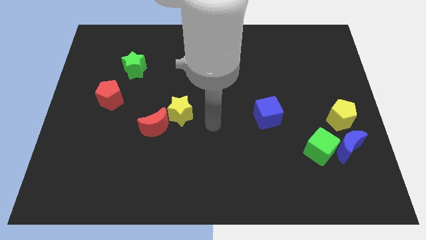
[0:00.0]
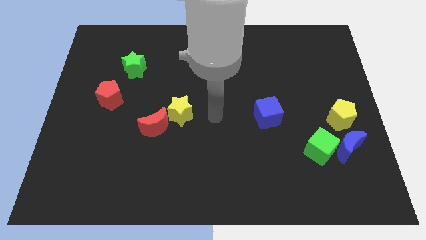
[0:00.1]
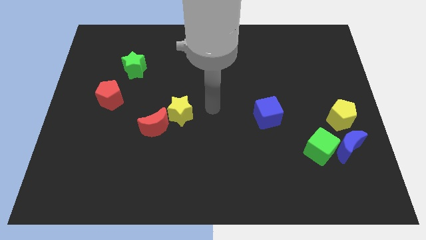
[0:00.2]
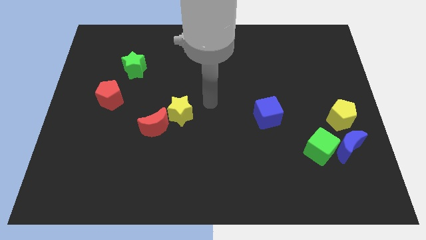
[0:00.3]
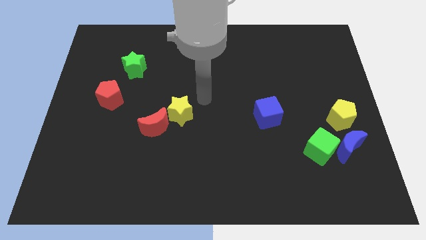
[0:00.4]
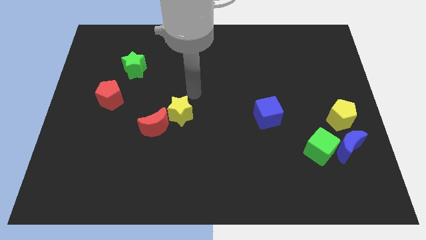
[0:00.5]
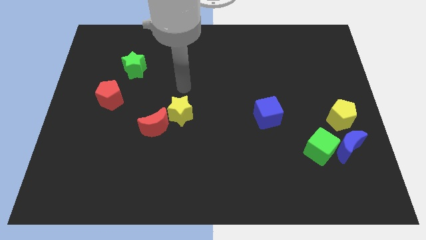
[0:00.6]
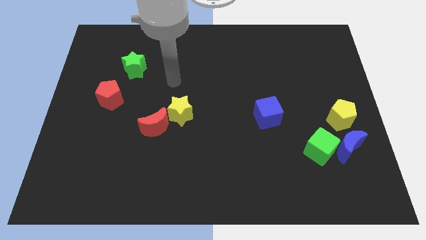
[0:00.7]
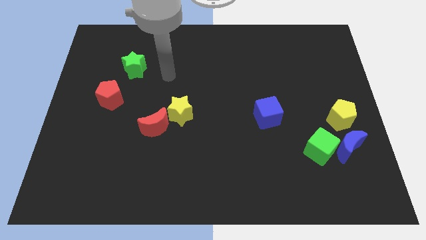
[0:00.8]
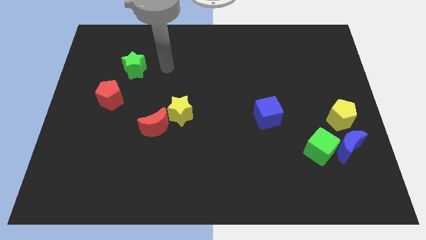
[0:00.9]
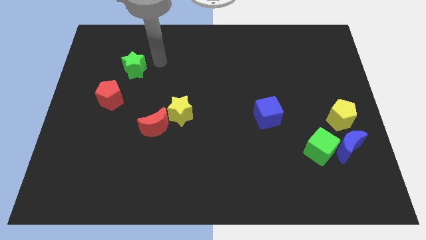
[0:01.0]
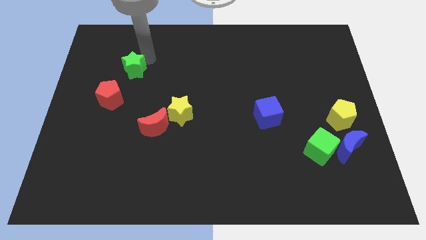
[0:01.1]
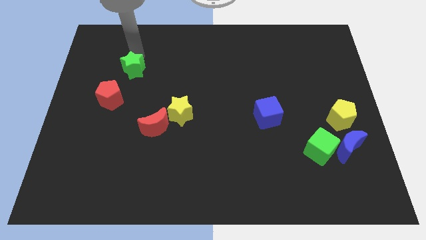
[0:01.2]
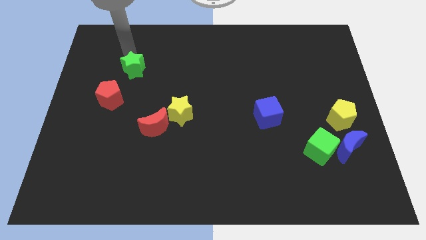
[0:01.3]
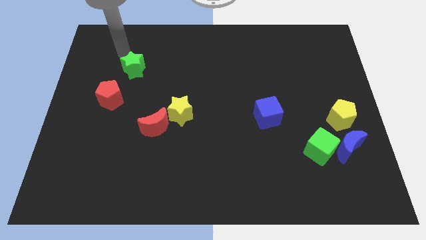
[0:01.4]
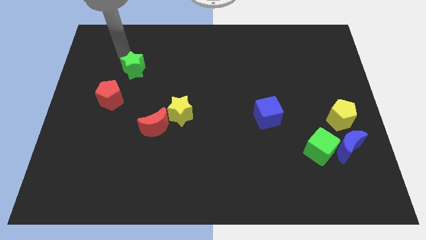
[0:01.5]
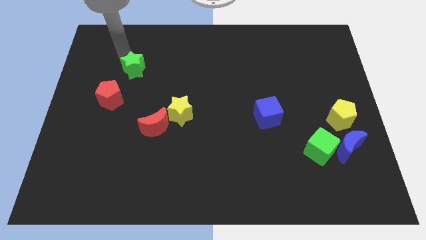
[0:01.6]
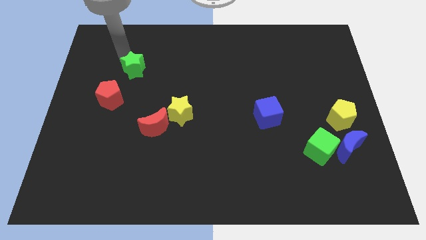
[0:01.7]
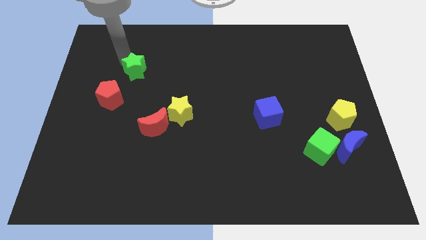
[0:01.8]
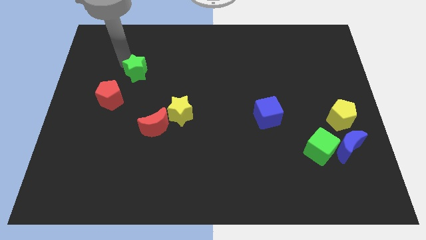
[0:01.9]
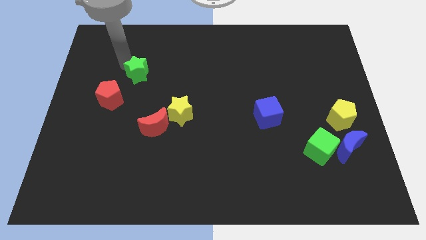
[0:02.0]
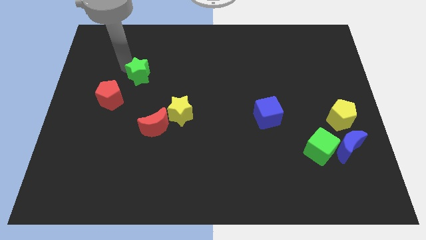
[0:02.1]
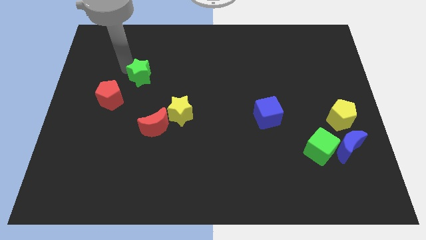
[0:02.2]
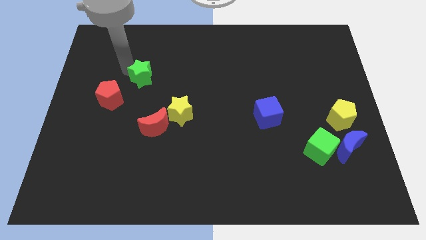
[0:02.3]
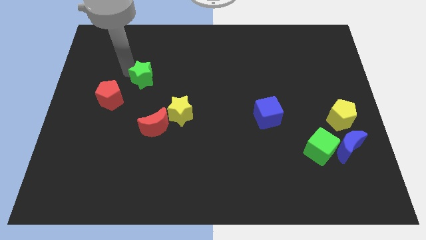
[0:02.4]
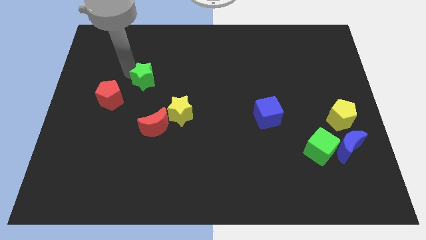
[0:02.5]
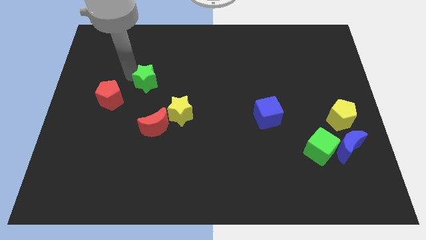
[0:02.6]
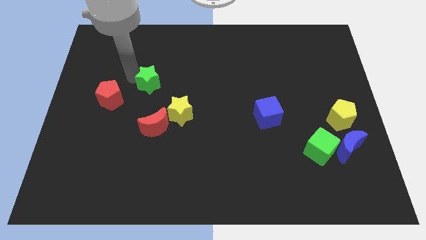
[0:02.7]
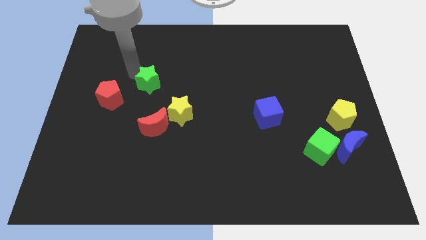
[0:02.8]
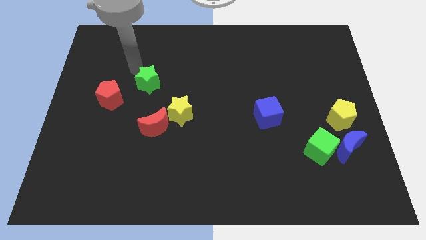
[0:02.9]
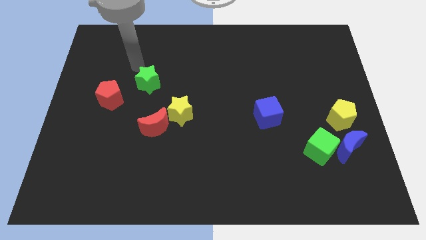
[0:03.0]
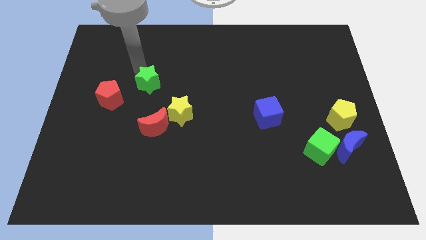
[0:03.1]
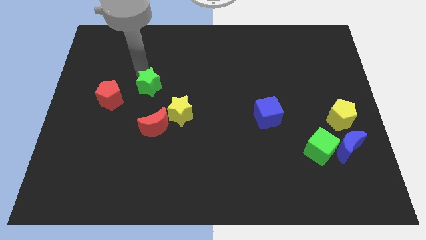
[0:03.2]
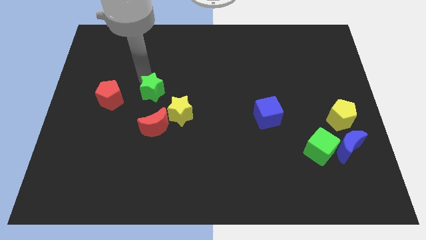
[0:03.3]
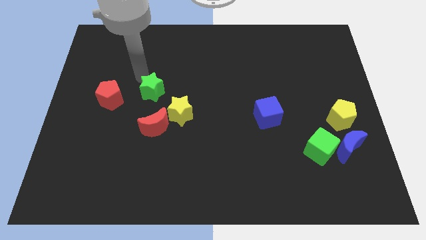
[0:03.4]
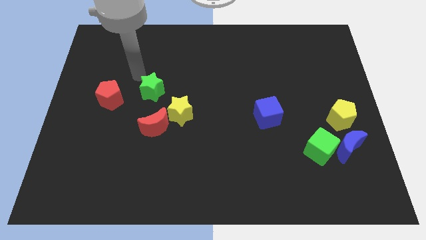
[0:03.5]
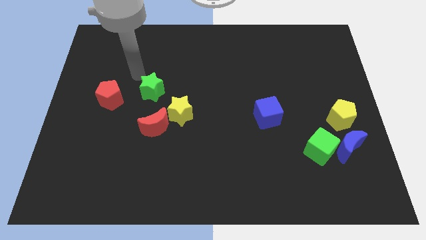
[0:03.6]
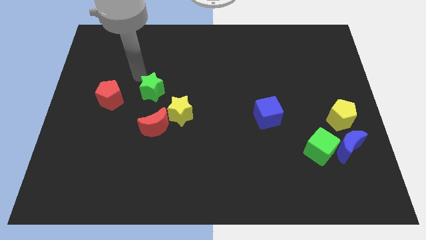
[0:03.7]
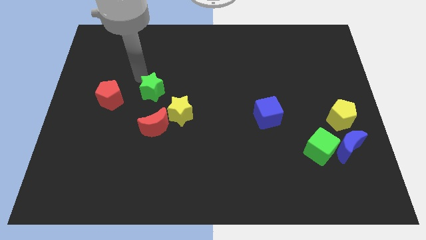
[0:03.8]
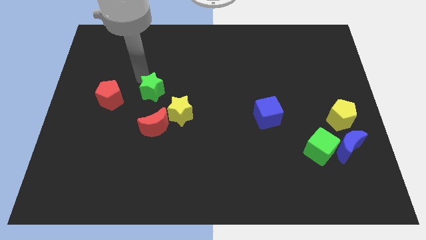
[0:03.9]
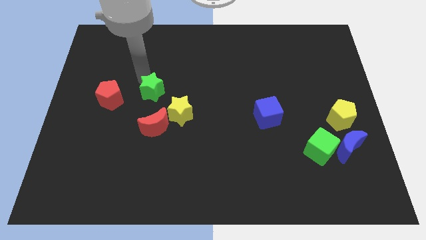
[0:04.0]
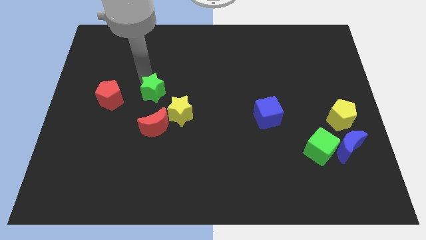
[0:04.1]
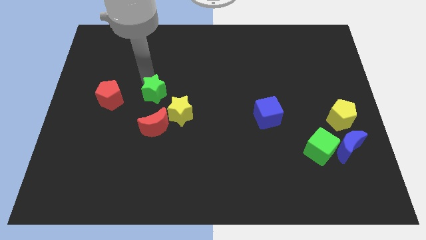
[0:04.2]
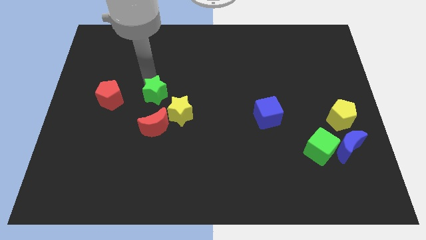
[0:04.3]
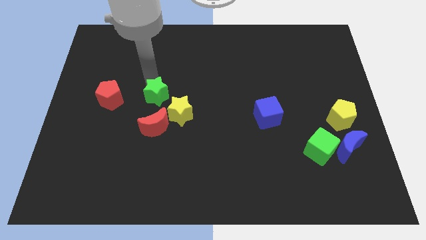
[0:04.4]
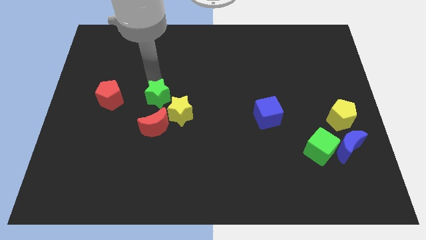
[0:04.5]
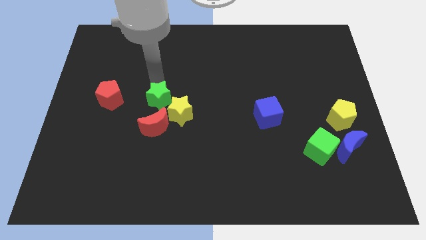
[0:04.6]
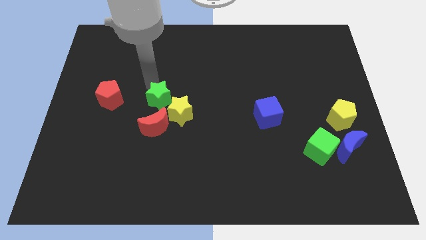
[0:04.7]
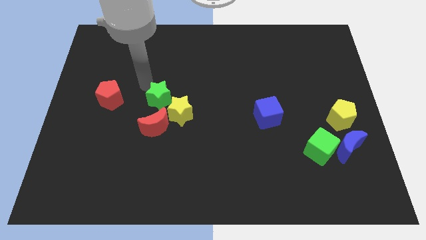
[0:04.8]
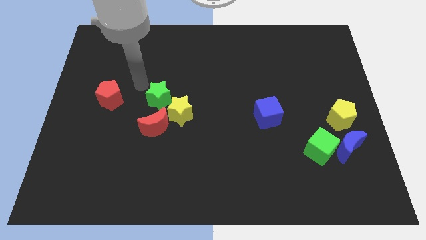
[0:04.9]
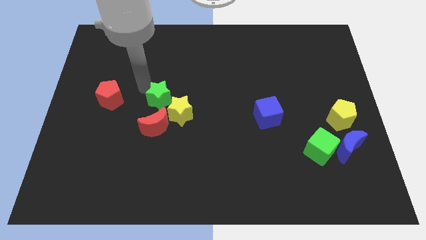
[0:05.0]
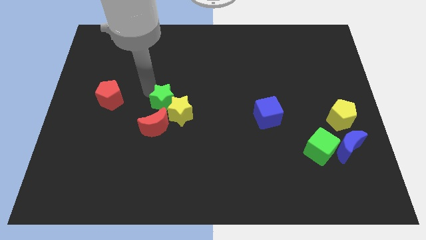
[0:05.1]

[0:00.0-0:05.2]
push the green star to the yellow star

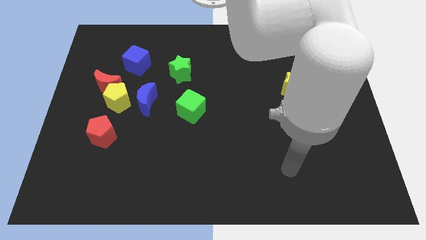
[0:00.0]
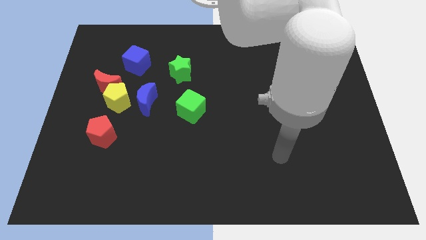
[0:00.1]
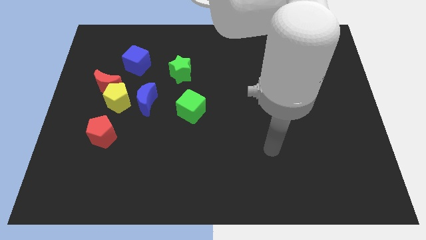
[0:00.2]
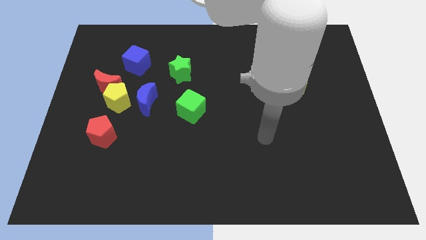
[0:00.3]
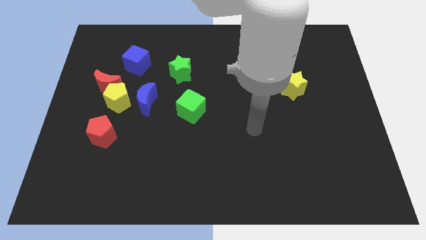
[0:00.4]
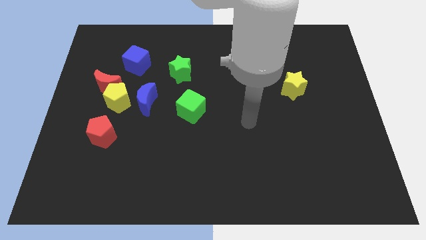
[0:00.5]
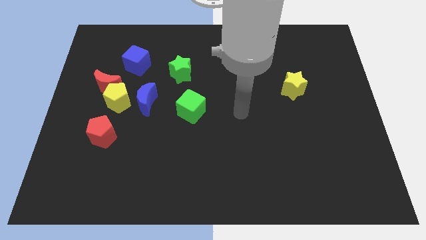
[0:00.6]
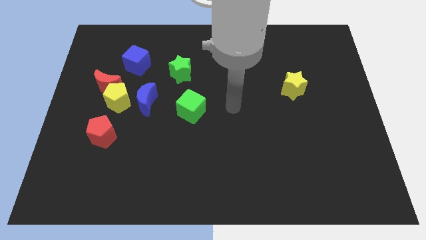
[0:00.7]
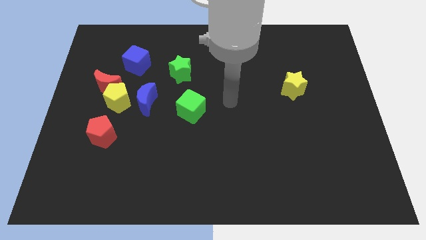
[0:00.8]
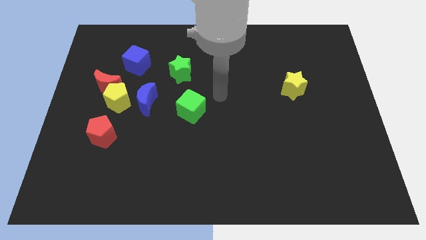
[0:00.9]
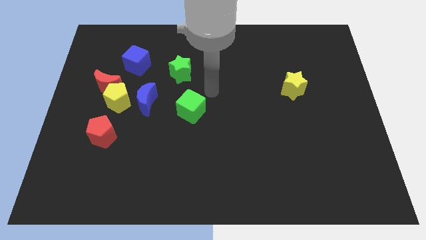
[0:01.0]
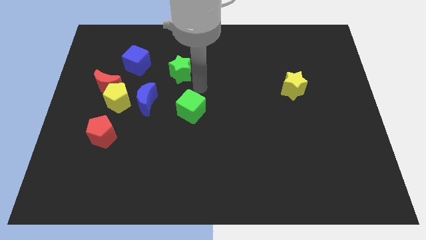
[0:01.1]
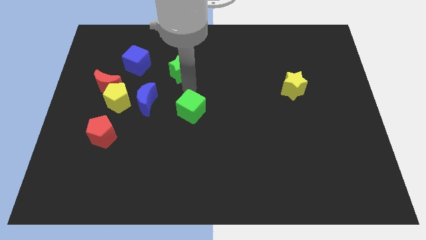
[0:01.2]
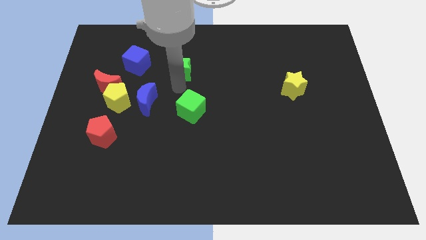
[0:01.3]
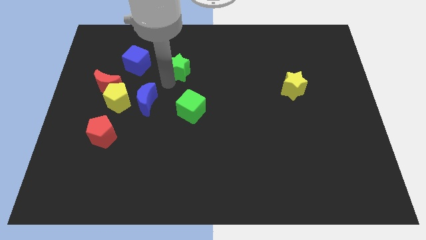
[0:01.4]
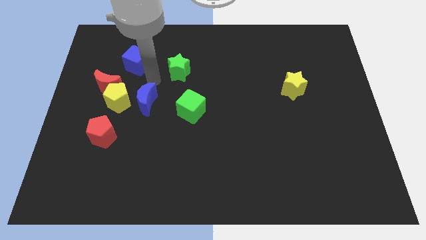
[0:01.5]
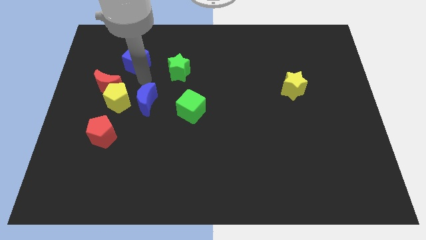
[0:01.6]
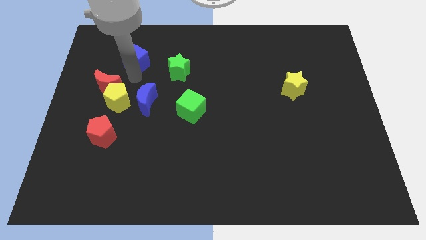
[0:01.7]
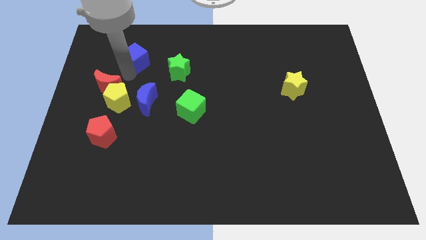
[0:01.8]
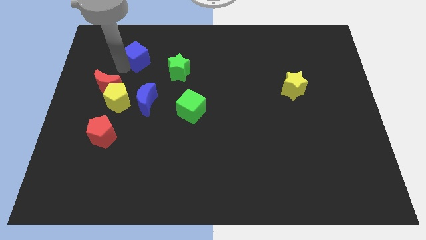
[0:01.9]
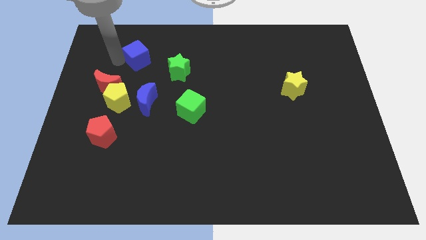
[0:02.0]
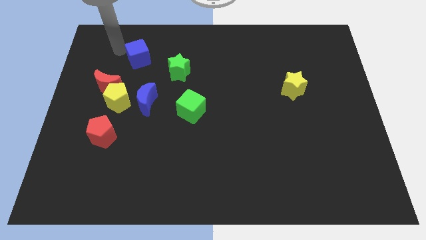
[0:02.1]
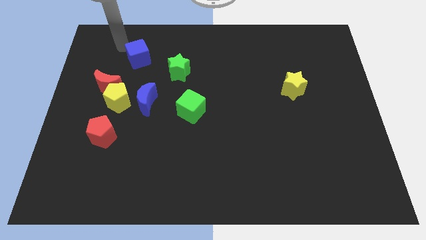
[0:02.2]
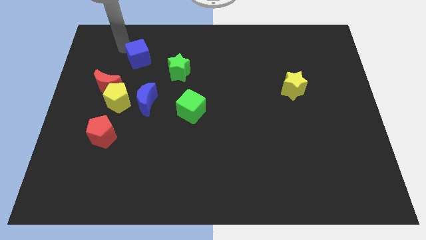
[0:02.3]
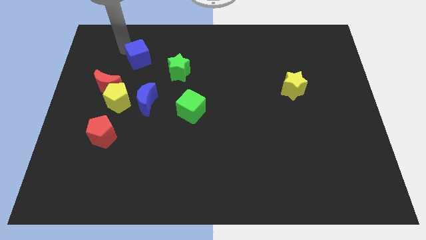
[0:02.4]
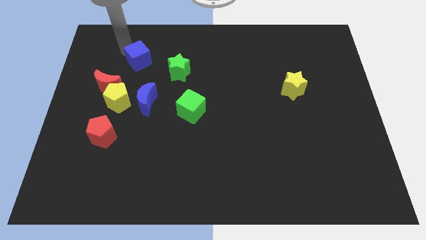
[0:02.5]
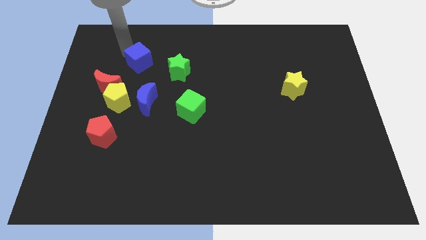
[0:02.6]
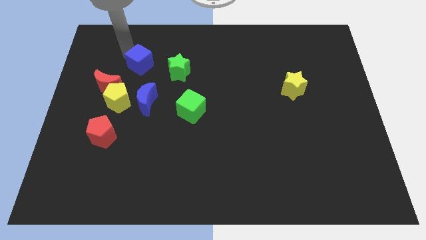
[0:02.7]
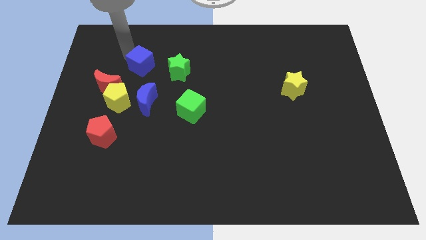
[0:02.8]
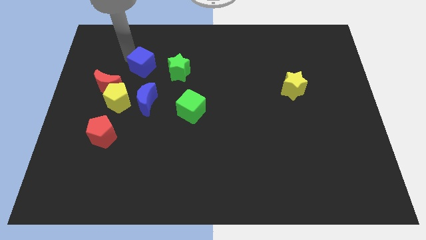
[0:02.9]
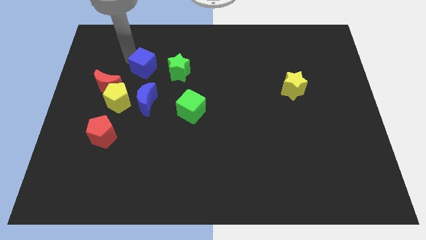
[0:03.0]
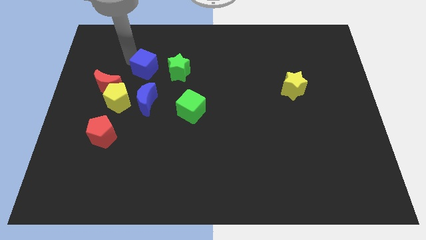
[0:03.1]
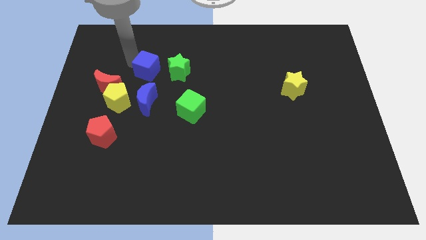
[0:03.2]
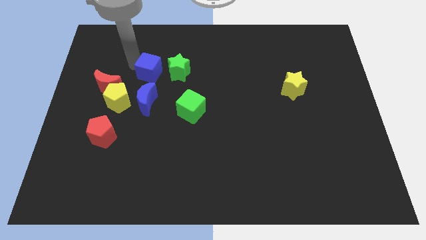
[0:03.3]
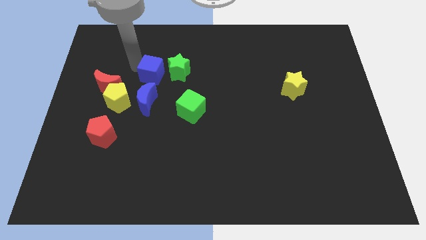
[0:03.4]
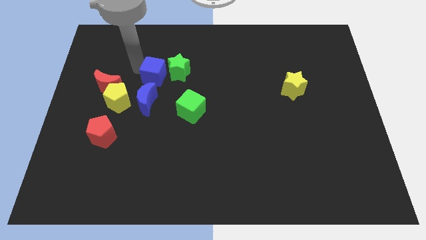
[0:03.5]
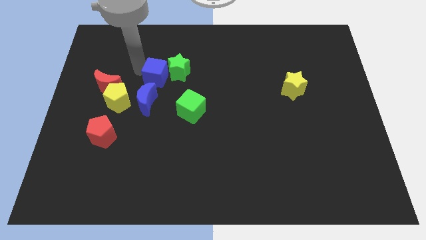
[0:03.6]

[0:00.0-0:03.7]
push the blue cube to the green star
